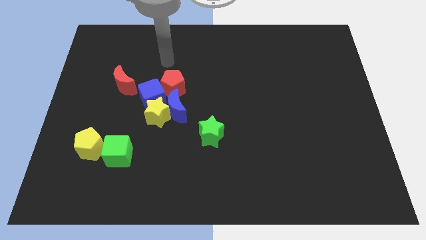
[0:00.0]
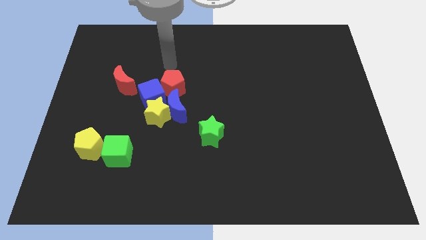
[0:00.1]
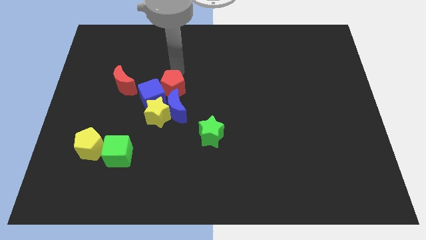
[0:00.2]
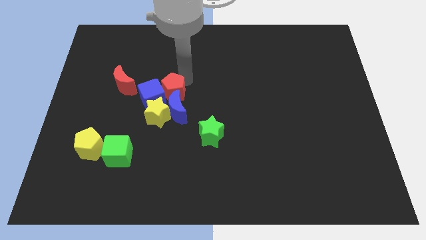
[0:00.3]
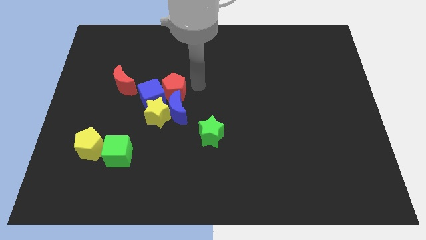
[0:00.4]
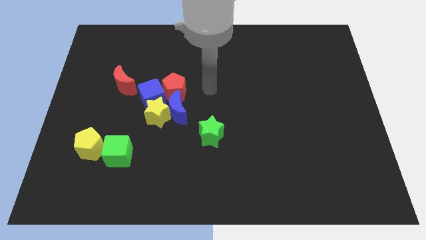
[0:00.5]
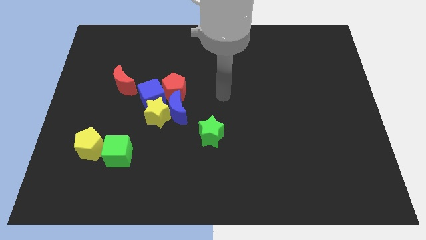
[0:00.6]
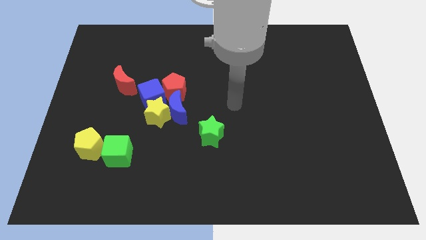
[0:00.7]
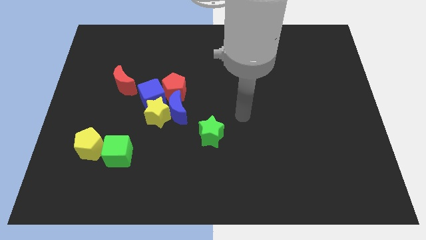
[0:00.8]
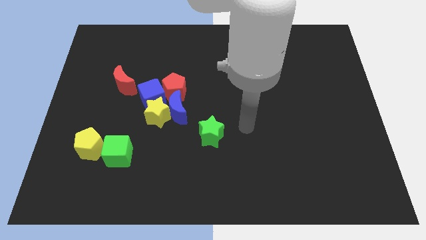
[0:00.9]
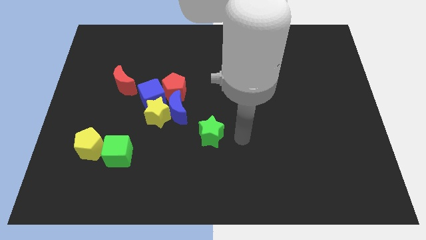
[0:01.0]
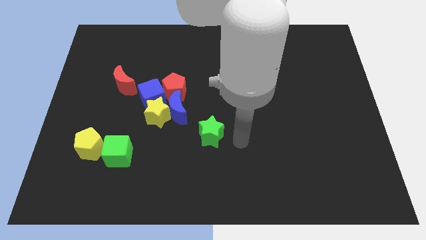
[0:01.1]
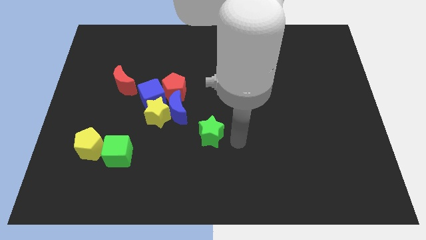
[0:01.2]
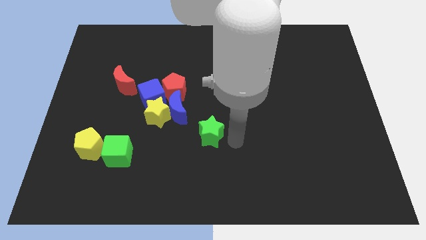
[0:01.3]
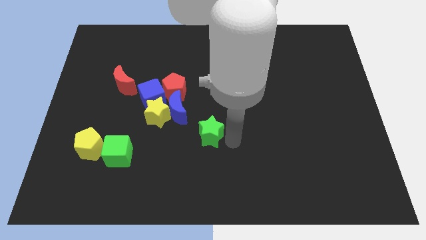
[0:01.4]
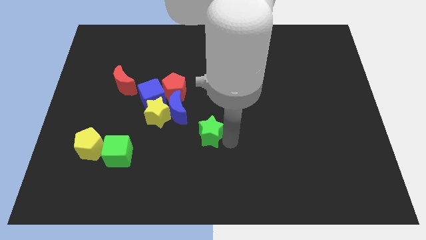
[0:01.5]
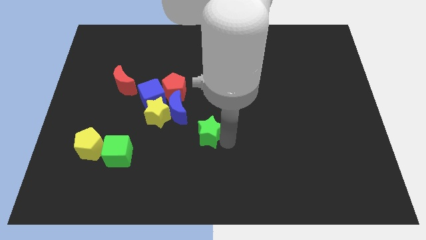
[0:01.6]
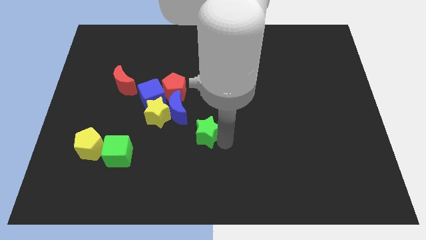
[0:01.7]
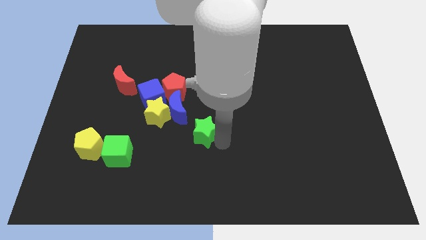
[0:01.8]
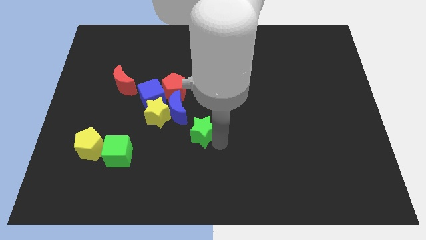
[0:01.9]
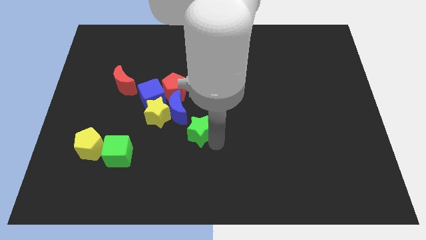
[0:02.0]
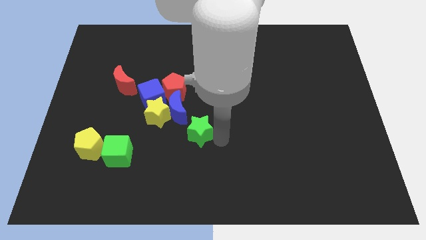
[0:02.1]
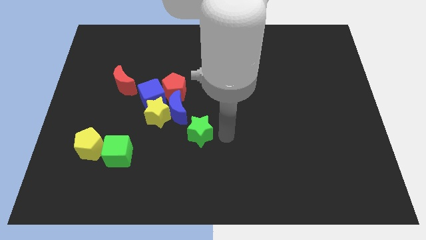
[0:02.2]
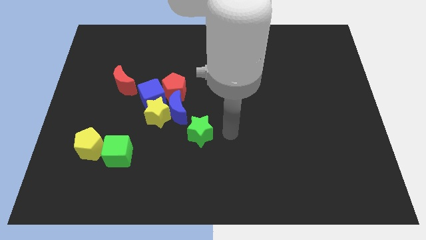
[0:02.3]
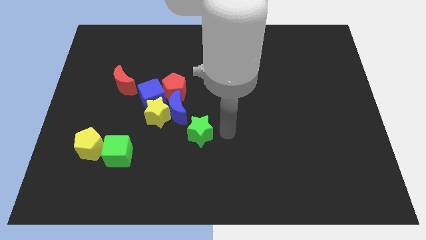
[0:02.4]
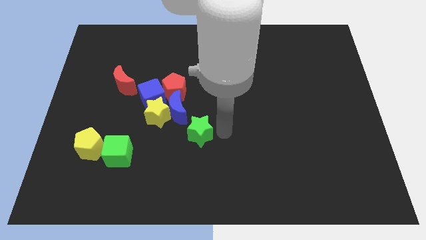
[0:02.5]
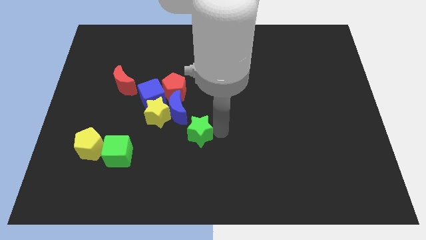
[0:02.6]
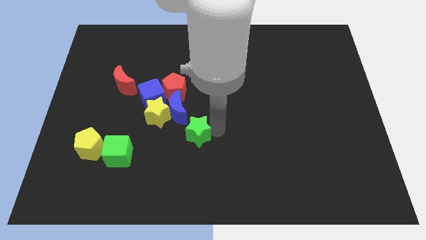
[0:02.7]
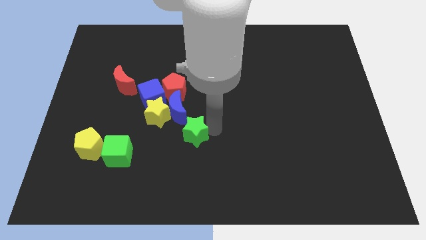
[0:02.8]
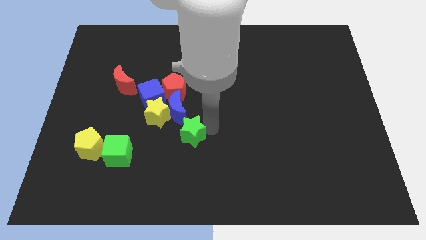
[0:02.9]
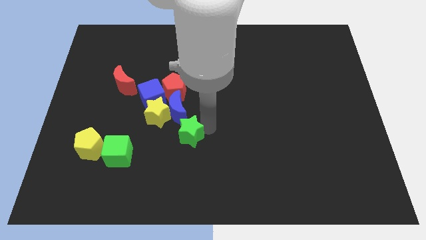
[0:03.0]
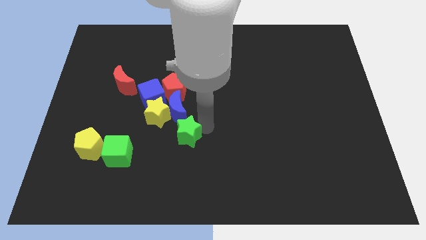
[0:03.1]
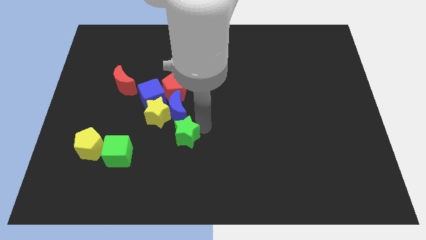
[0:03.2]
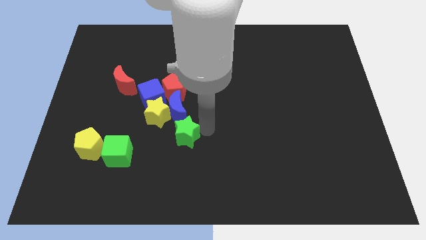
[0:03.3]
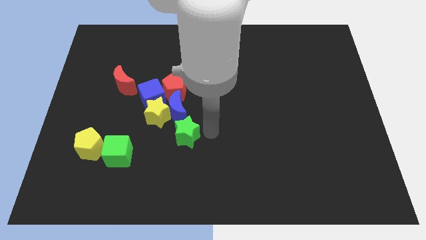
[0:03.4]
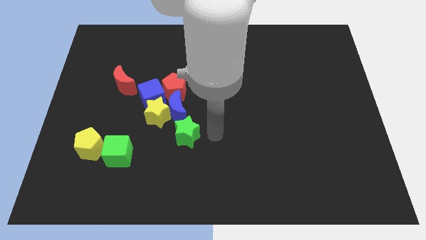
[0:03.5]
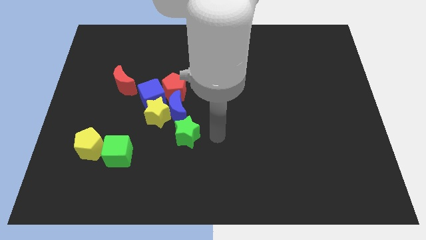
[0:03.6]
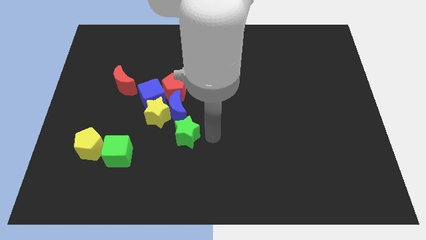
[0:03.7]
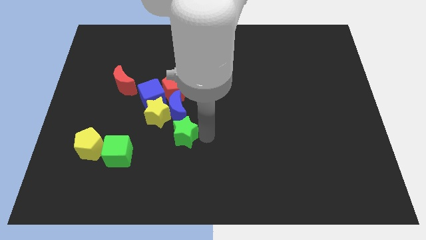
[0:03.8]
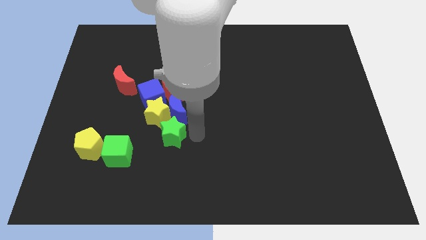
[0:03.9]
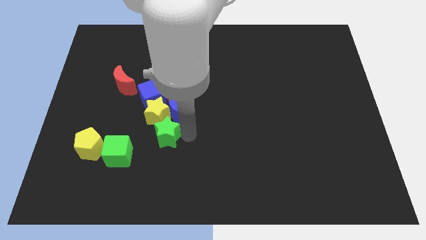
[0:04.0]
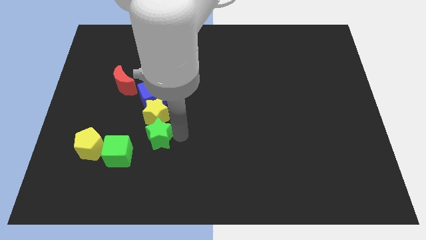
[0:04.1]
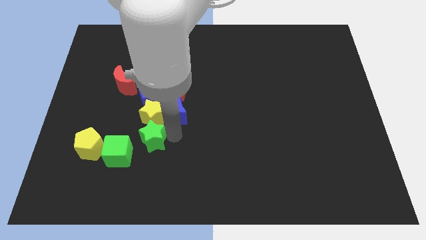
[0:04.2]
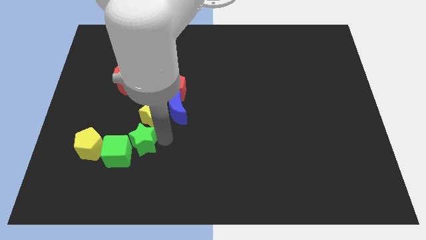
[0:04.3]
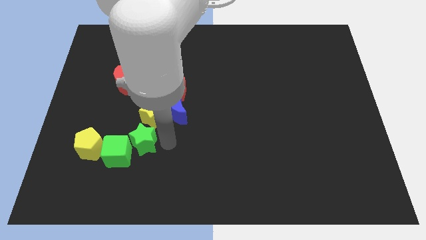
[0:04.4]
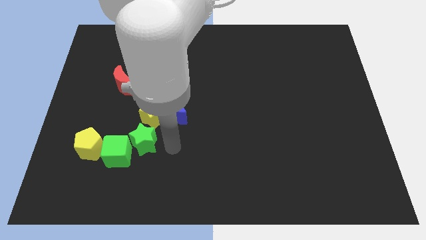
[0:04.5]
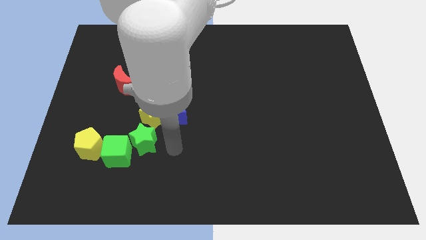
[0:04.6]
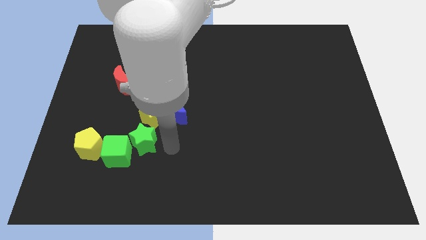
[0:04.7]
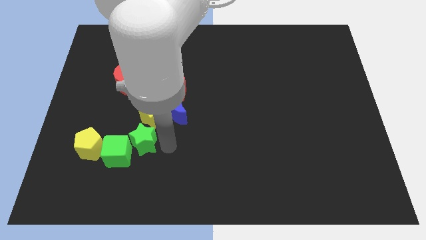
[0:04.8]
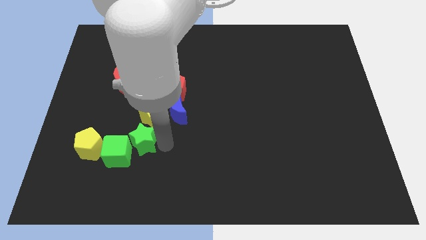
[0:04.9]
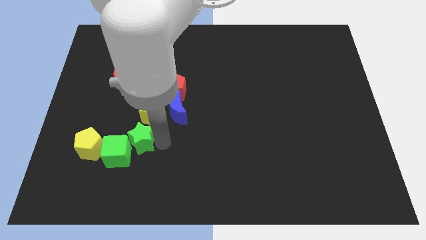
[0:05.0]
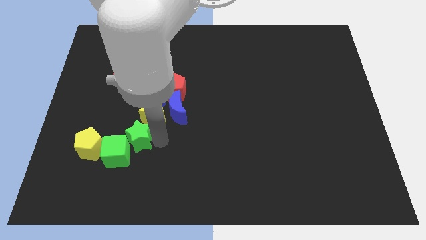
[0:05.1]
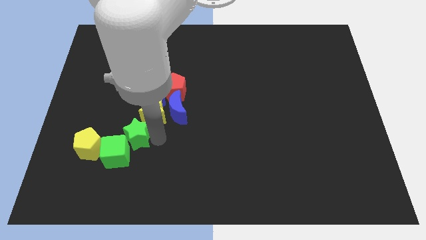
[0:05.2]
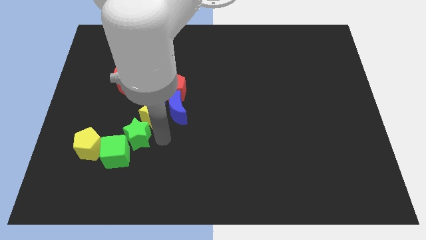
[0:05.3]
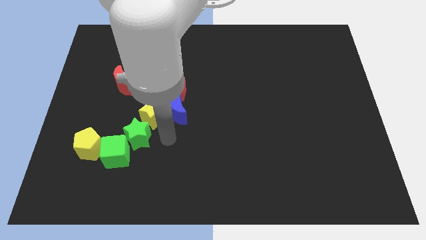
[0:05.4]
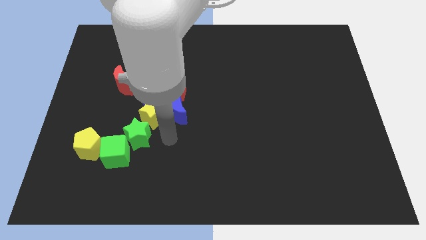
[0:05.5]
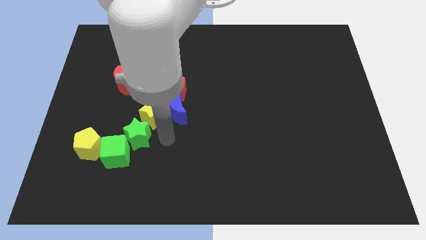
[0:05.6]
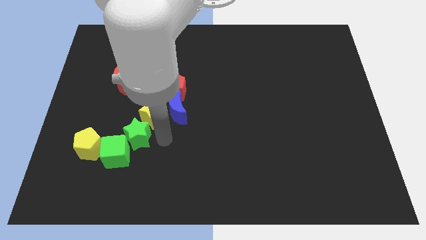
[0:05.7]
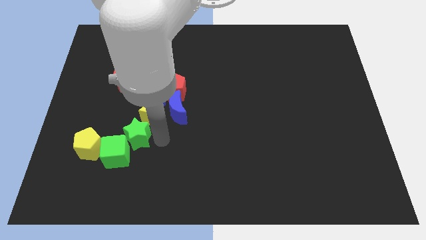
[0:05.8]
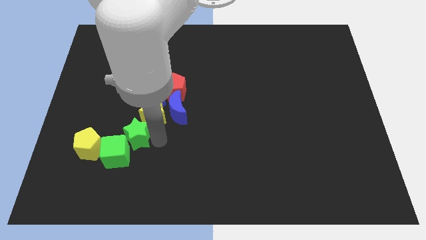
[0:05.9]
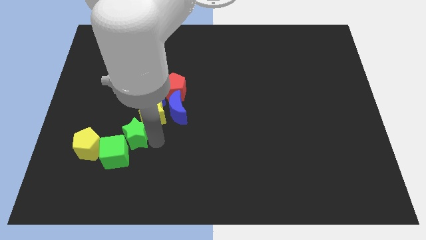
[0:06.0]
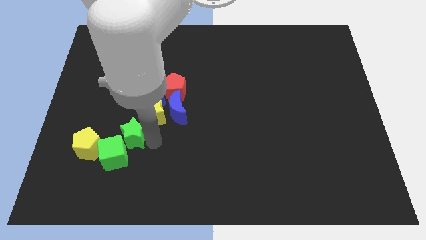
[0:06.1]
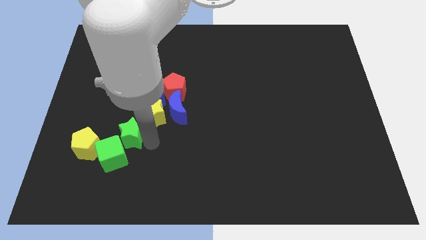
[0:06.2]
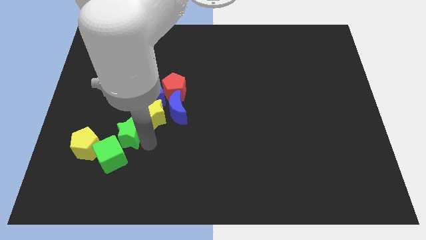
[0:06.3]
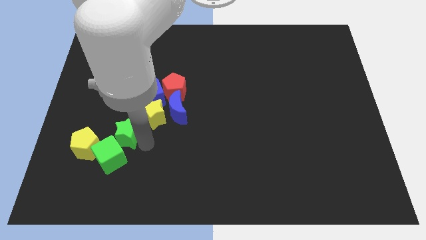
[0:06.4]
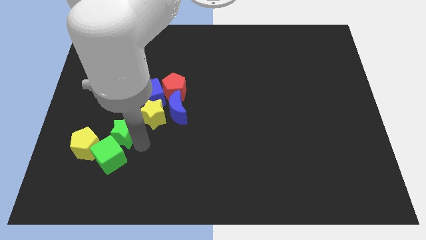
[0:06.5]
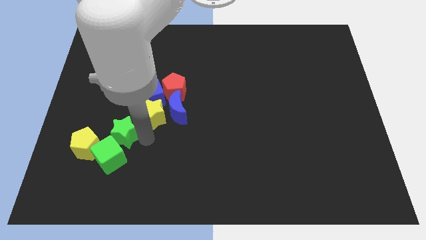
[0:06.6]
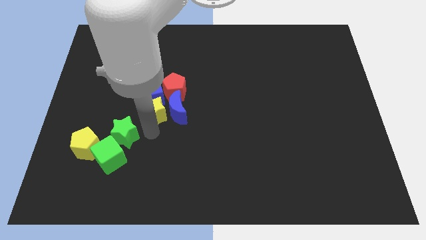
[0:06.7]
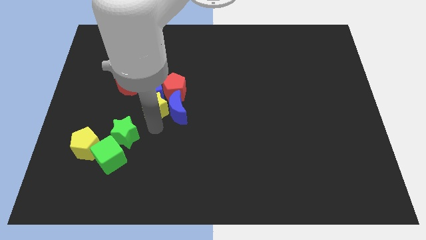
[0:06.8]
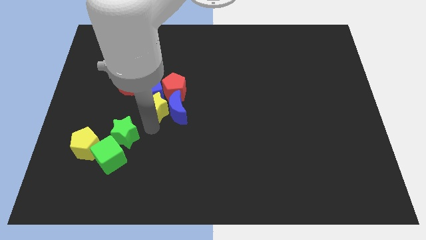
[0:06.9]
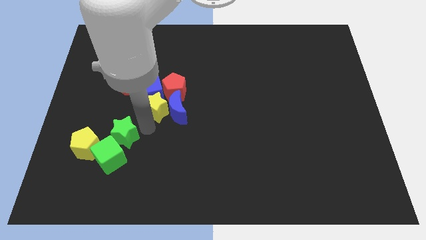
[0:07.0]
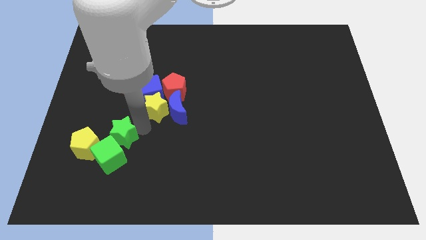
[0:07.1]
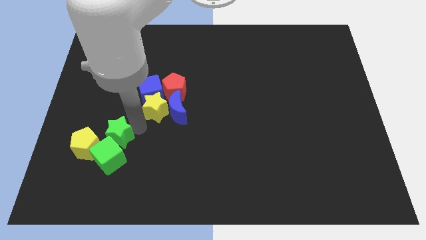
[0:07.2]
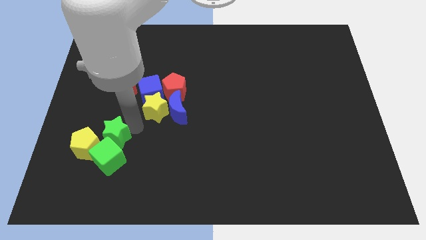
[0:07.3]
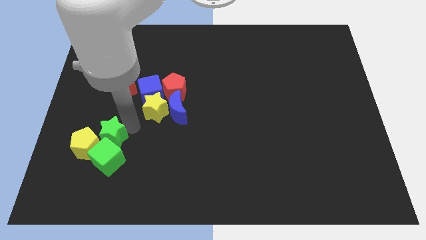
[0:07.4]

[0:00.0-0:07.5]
push the green star close to the yellow pentagon
